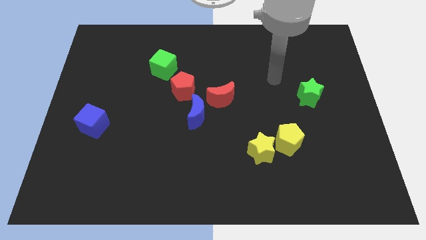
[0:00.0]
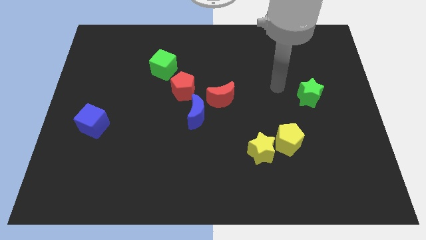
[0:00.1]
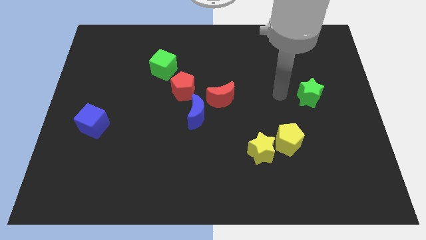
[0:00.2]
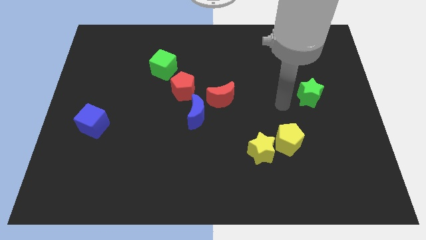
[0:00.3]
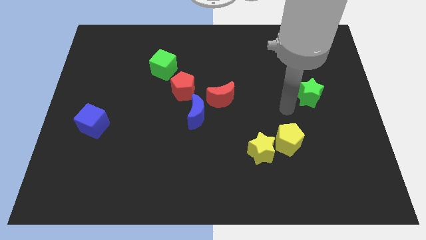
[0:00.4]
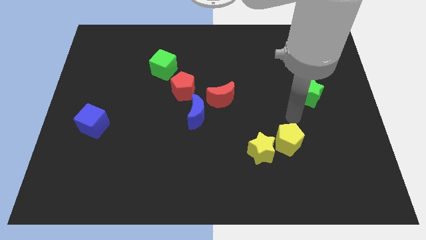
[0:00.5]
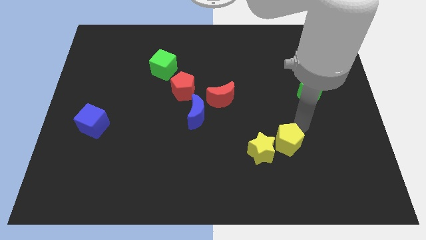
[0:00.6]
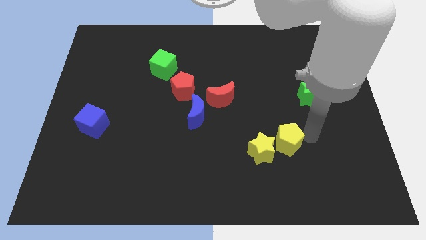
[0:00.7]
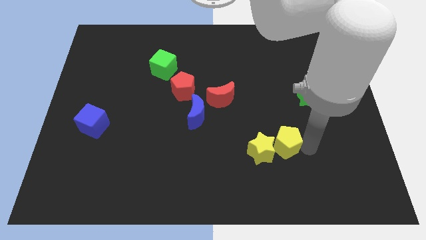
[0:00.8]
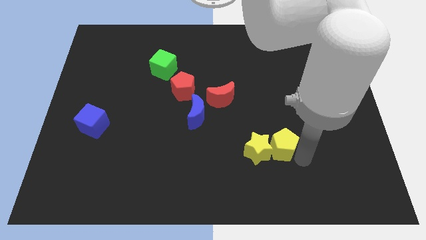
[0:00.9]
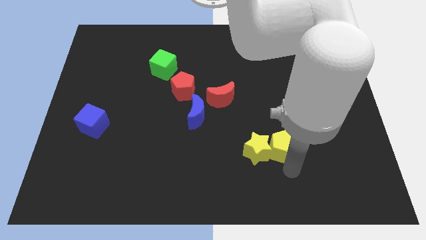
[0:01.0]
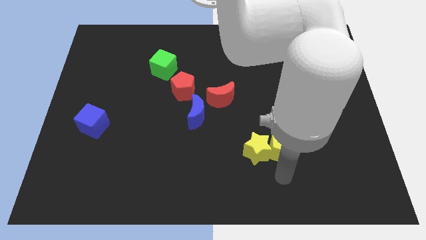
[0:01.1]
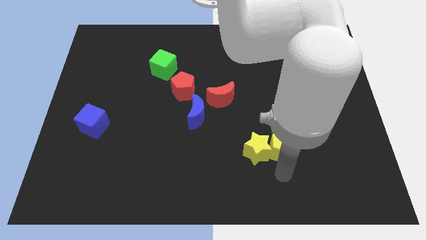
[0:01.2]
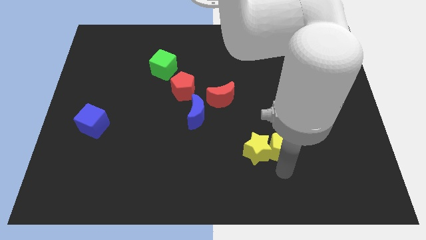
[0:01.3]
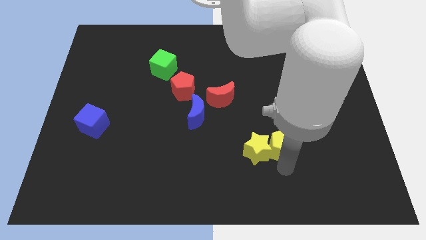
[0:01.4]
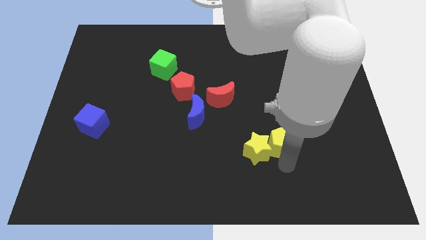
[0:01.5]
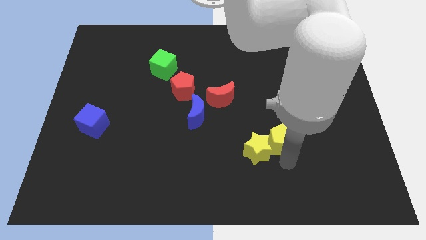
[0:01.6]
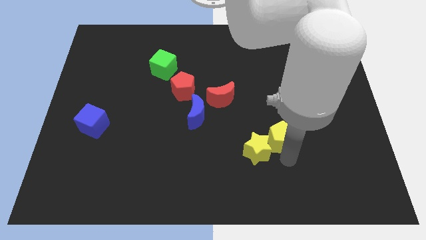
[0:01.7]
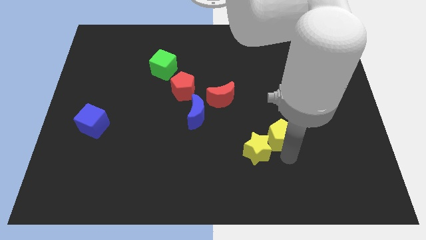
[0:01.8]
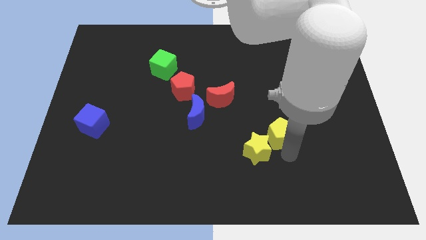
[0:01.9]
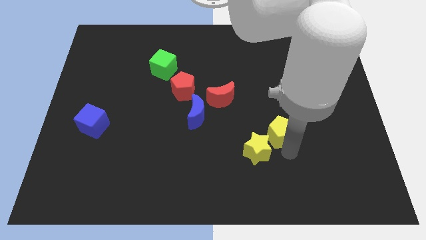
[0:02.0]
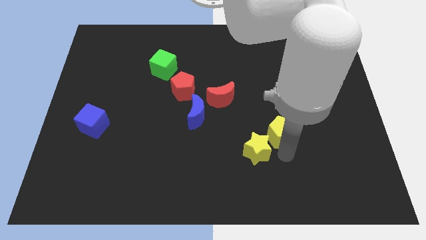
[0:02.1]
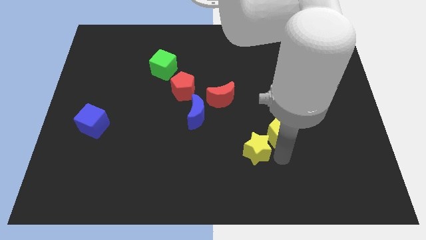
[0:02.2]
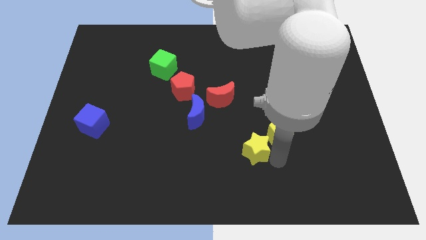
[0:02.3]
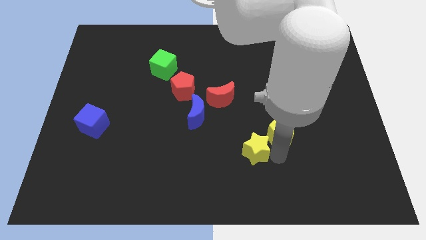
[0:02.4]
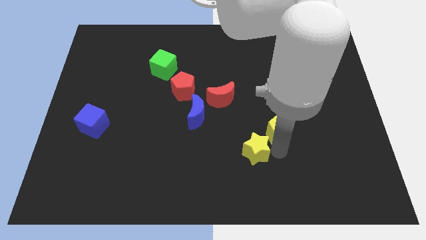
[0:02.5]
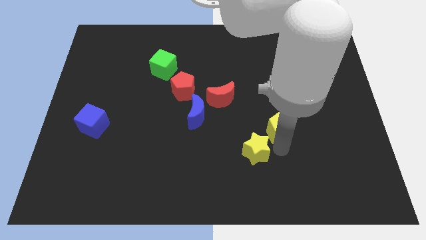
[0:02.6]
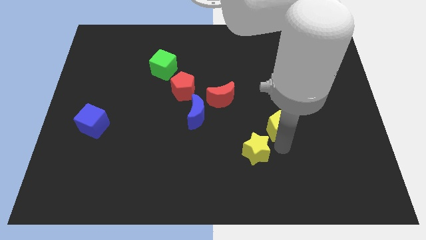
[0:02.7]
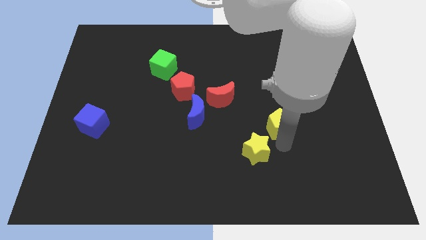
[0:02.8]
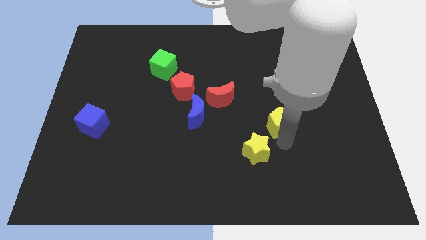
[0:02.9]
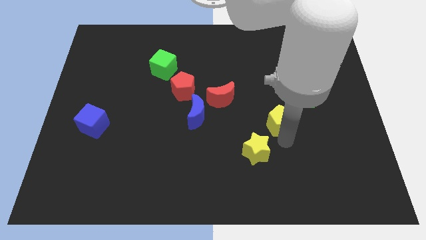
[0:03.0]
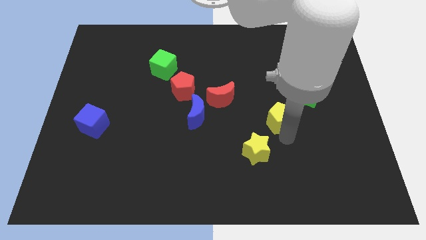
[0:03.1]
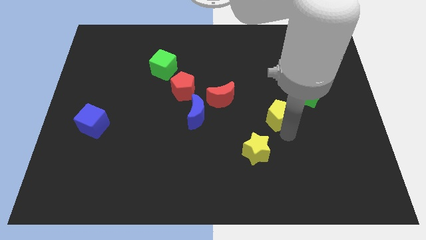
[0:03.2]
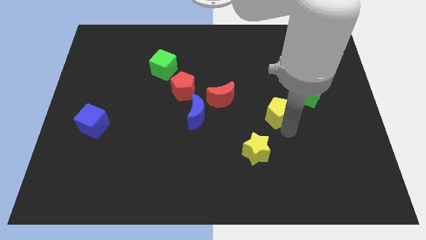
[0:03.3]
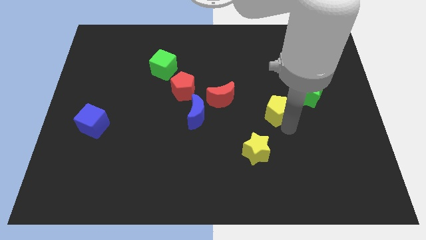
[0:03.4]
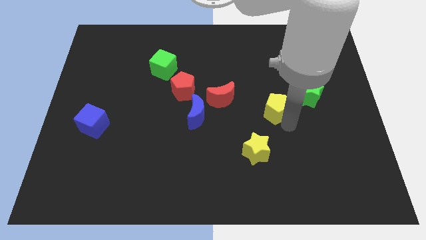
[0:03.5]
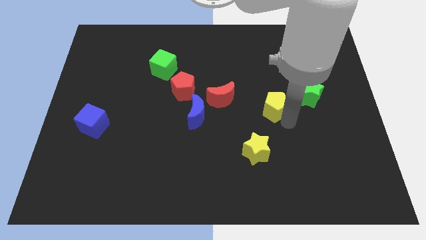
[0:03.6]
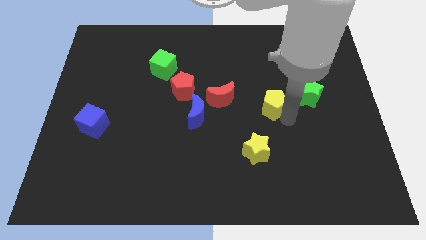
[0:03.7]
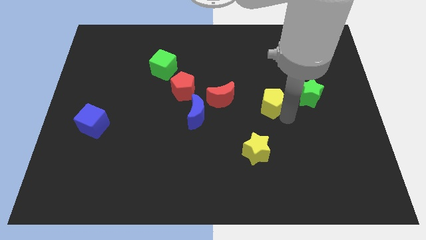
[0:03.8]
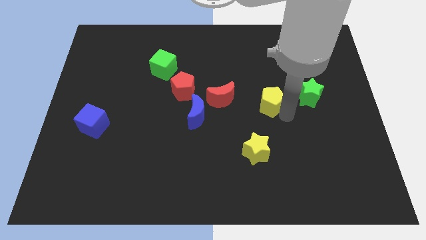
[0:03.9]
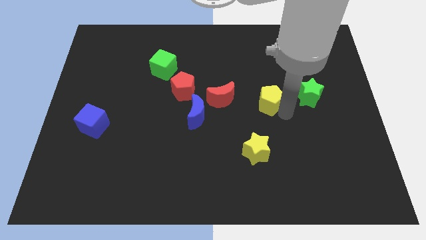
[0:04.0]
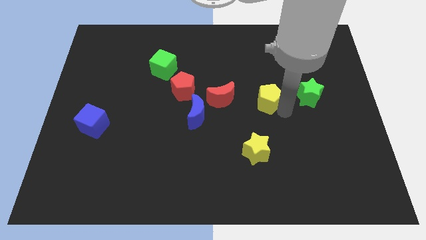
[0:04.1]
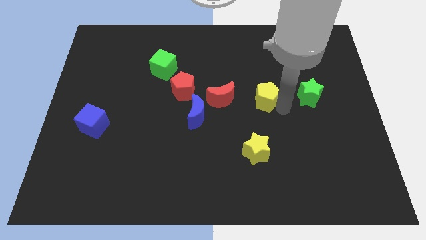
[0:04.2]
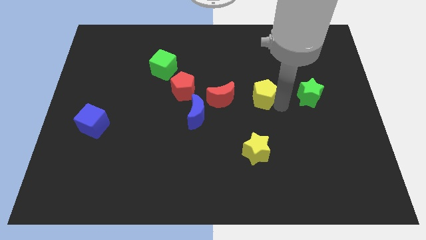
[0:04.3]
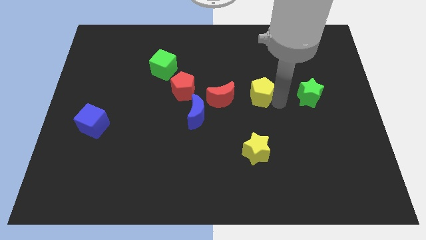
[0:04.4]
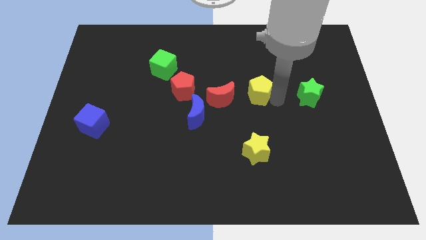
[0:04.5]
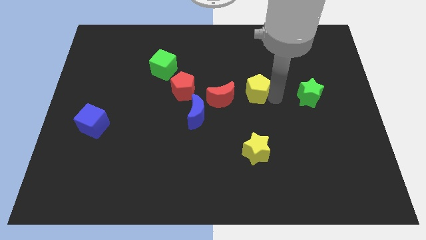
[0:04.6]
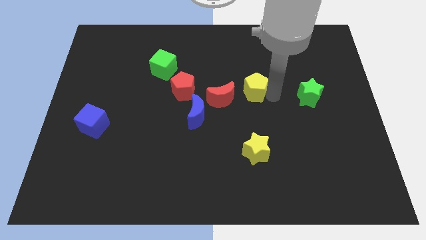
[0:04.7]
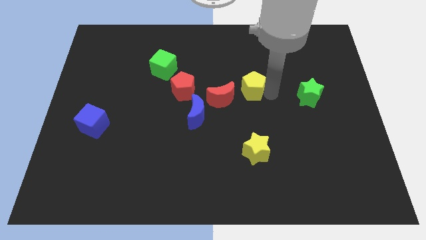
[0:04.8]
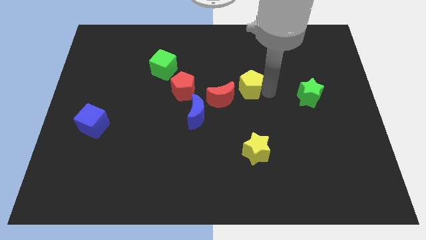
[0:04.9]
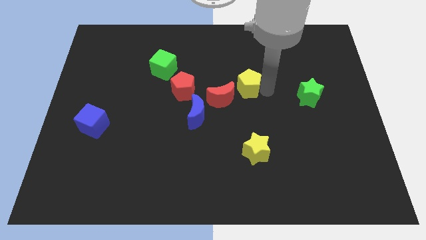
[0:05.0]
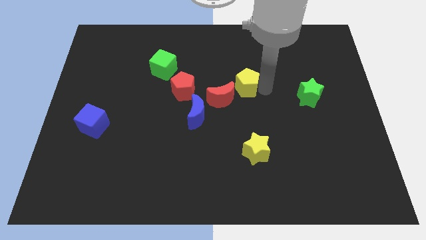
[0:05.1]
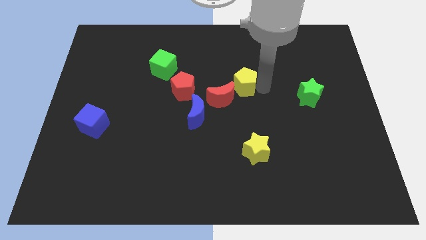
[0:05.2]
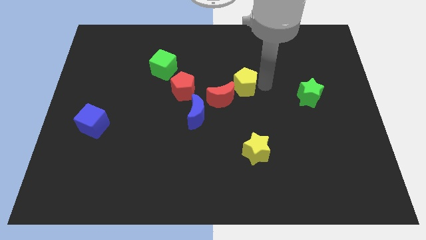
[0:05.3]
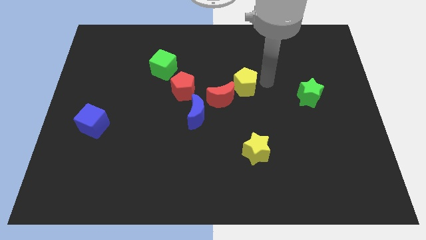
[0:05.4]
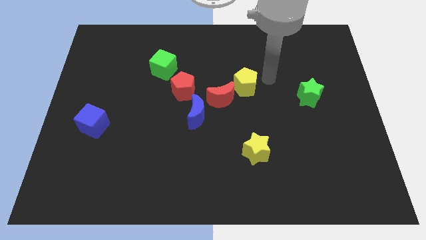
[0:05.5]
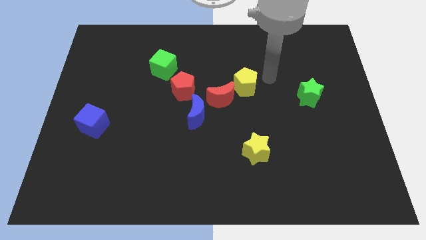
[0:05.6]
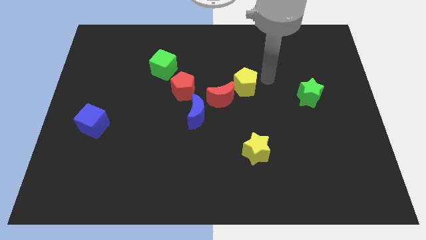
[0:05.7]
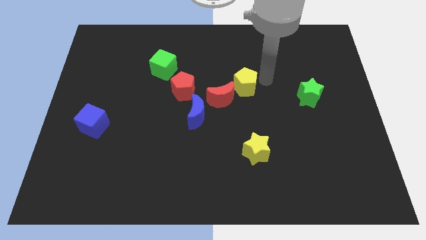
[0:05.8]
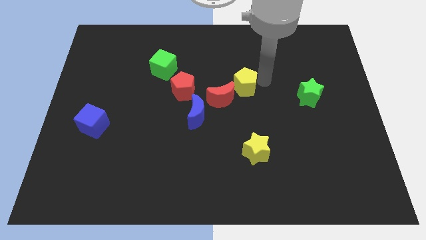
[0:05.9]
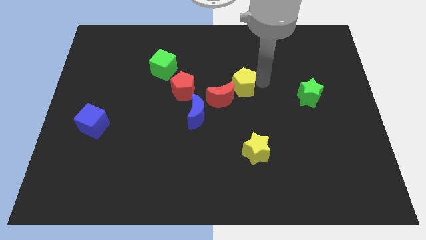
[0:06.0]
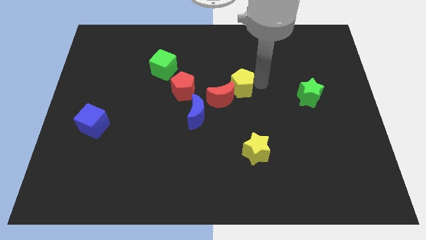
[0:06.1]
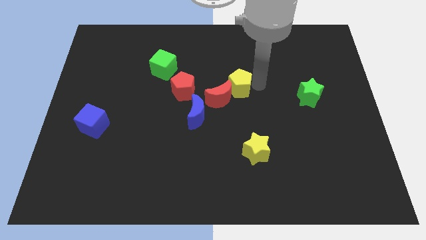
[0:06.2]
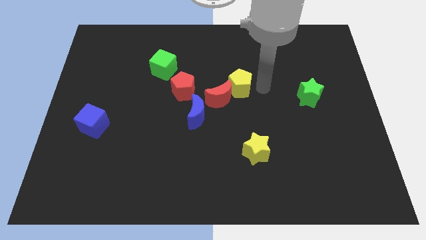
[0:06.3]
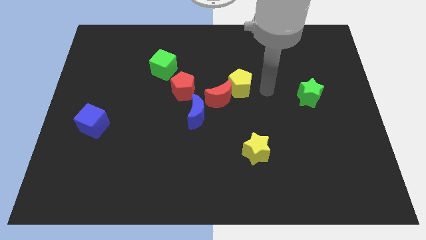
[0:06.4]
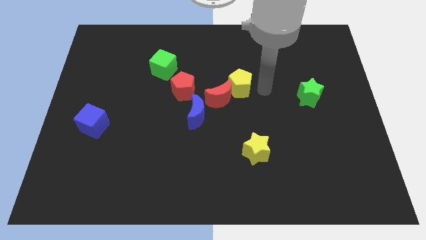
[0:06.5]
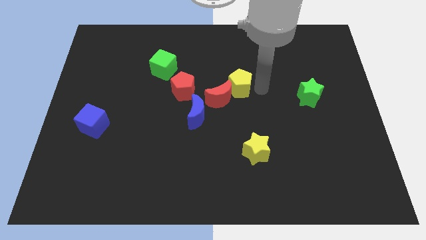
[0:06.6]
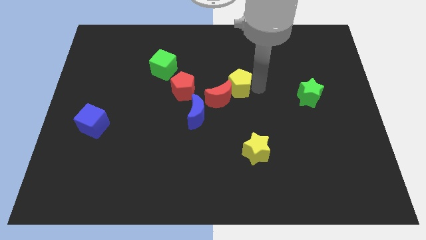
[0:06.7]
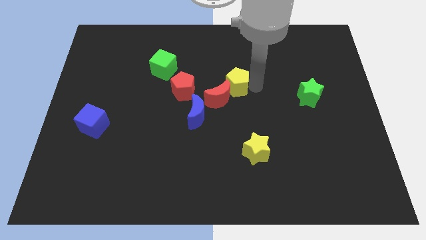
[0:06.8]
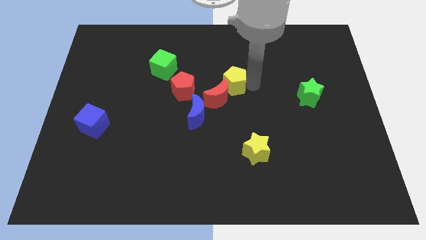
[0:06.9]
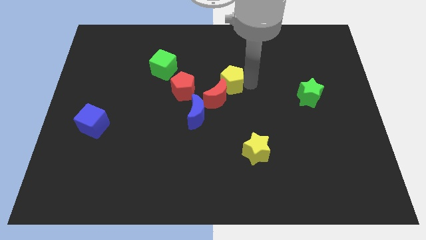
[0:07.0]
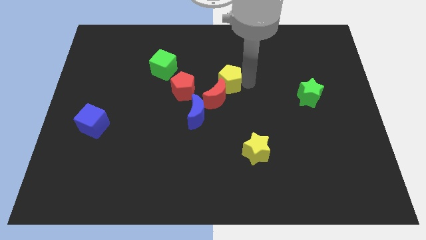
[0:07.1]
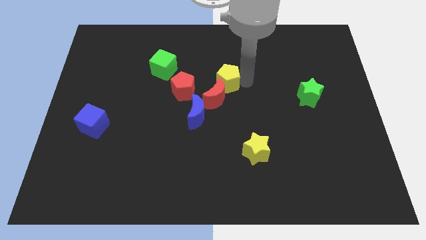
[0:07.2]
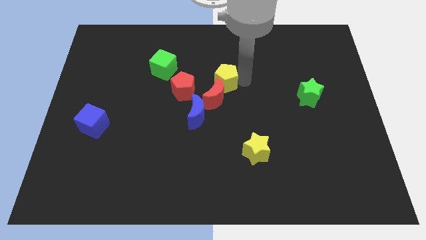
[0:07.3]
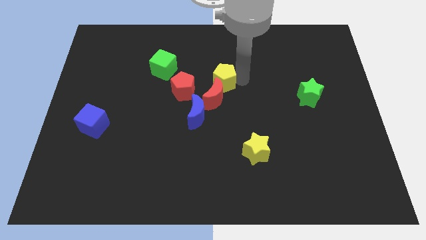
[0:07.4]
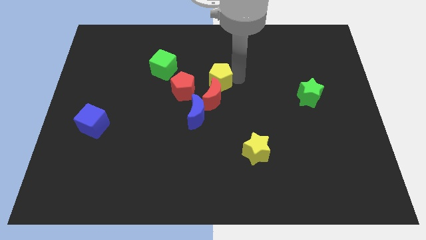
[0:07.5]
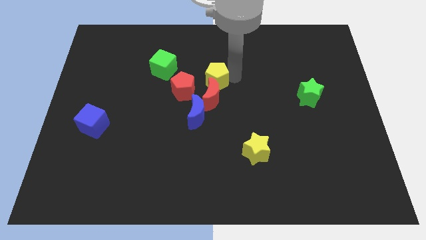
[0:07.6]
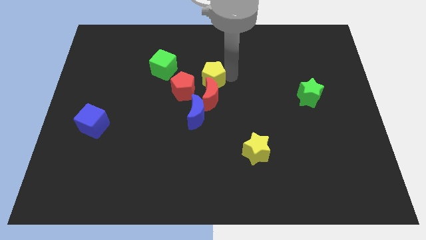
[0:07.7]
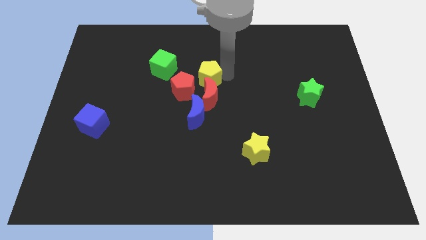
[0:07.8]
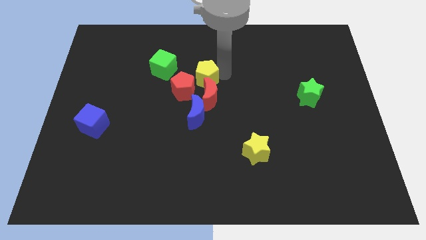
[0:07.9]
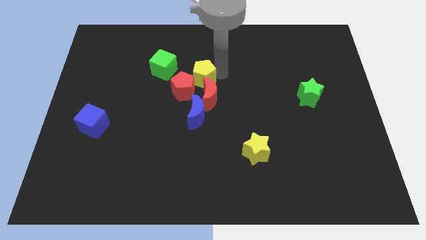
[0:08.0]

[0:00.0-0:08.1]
push the yellow pentagon close to the red pentagon
